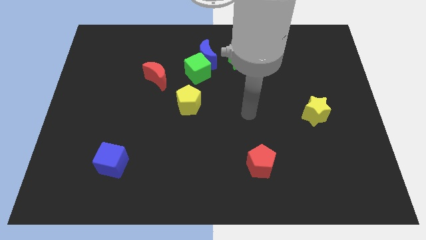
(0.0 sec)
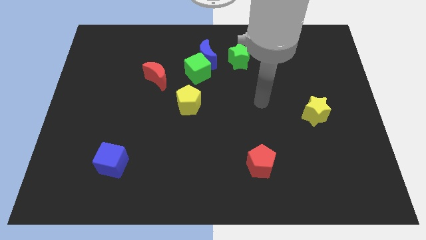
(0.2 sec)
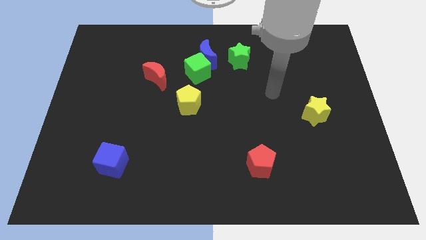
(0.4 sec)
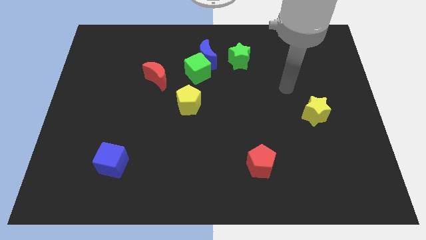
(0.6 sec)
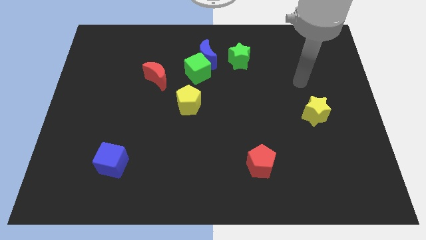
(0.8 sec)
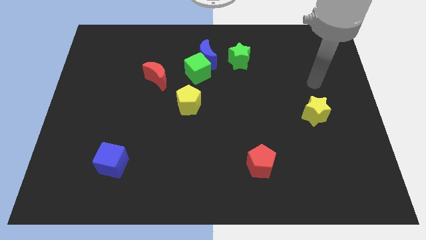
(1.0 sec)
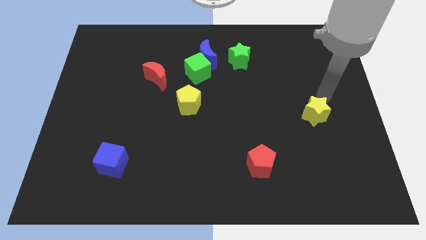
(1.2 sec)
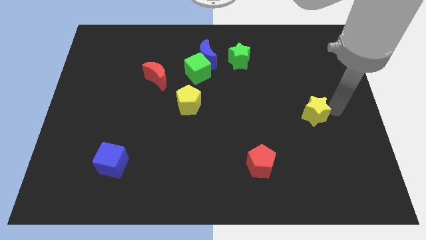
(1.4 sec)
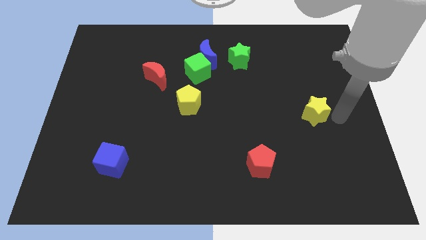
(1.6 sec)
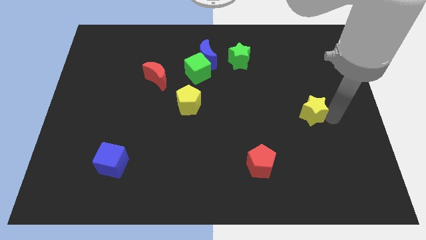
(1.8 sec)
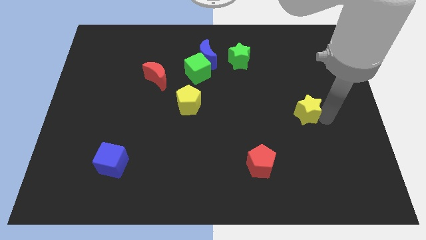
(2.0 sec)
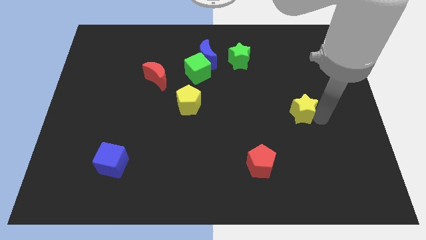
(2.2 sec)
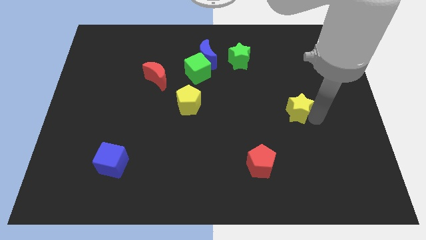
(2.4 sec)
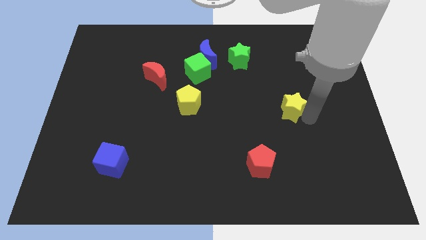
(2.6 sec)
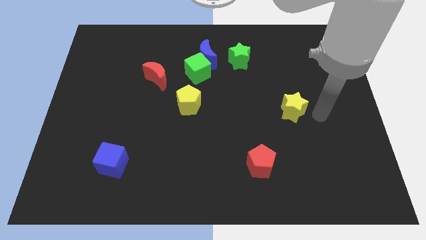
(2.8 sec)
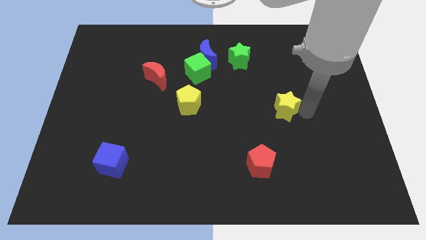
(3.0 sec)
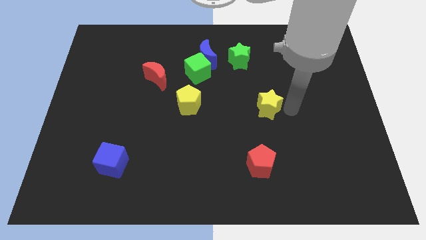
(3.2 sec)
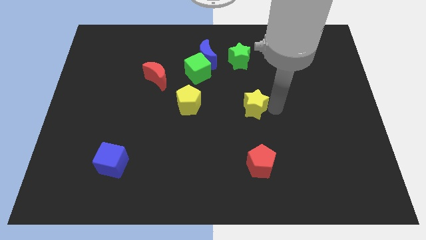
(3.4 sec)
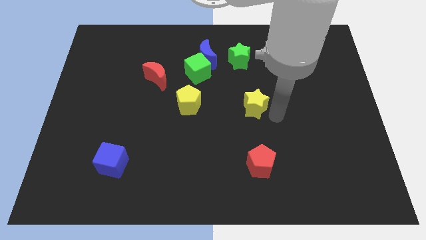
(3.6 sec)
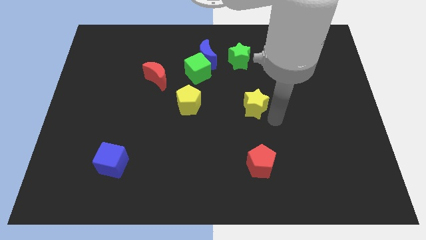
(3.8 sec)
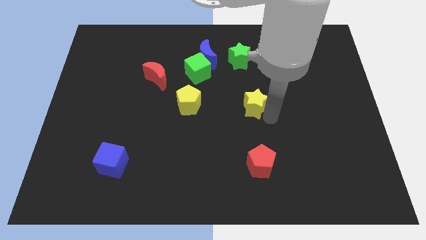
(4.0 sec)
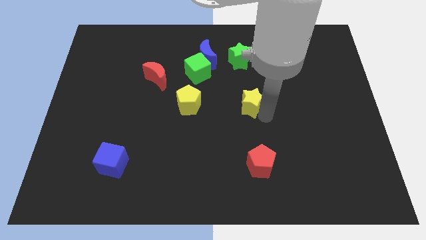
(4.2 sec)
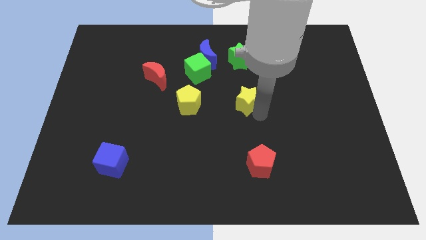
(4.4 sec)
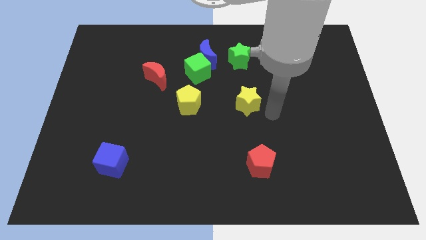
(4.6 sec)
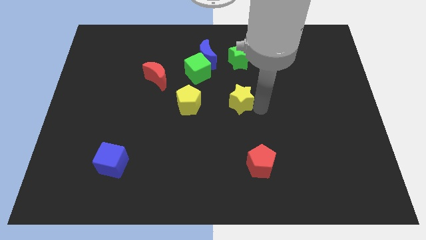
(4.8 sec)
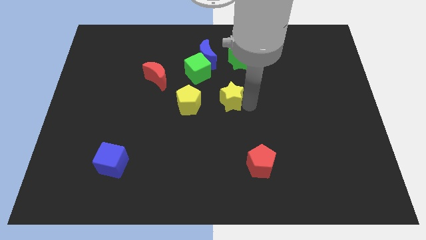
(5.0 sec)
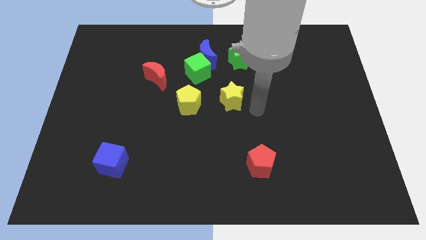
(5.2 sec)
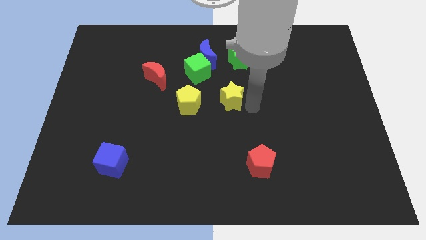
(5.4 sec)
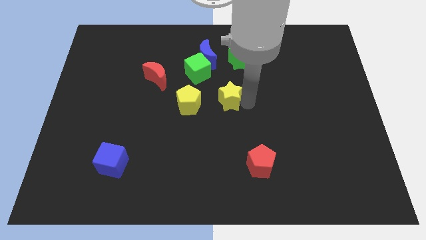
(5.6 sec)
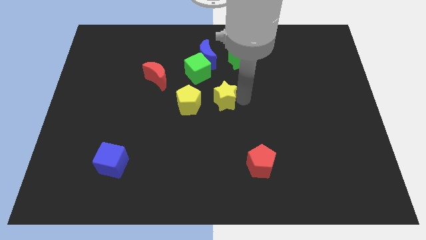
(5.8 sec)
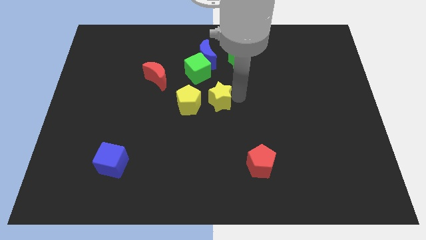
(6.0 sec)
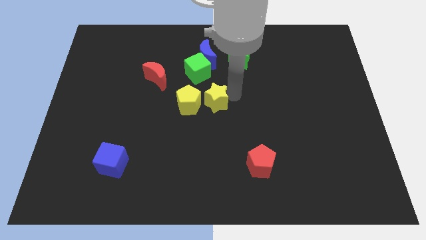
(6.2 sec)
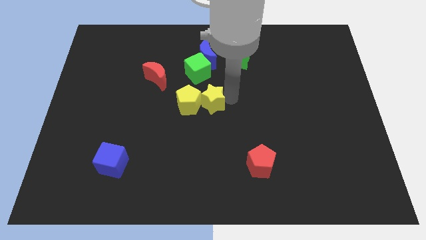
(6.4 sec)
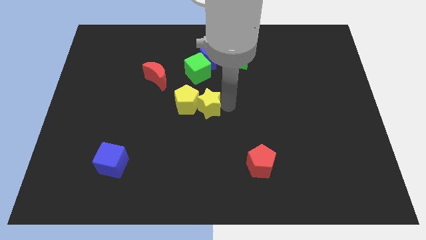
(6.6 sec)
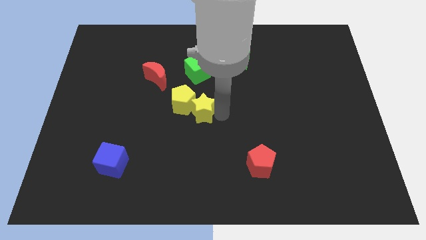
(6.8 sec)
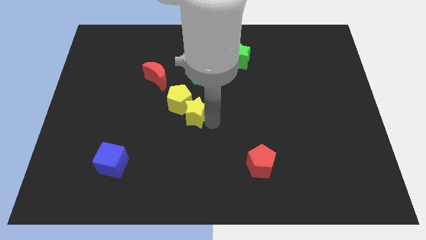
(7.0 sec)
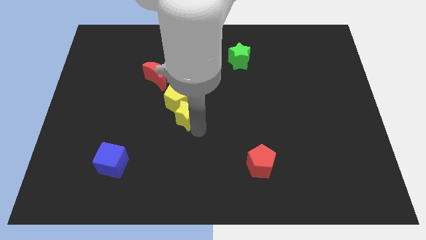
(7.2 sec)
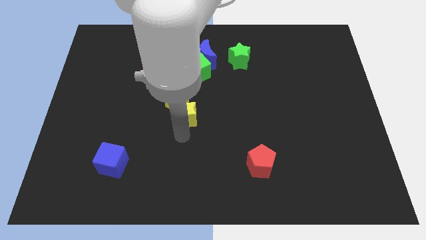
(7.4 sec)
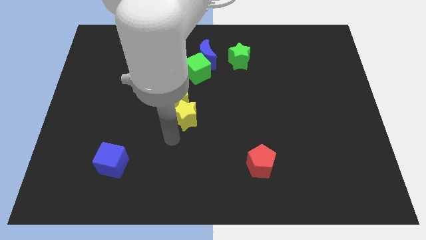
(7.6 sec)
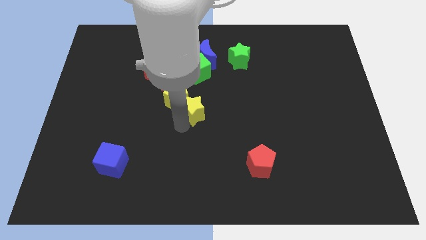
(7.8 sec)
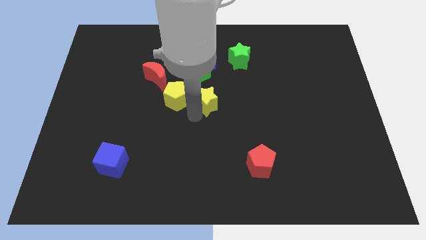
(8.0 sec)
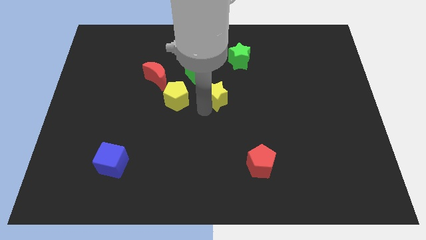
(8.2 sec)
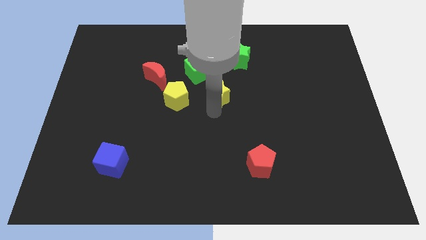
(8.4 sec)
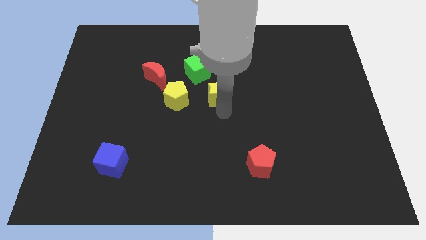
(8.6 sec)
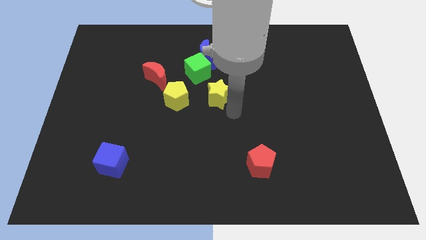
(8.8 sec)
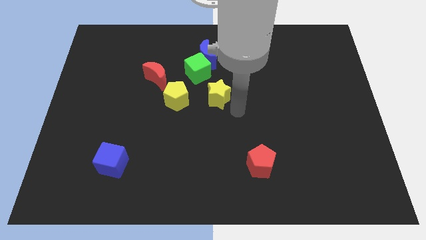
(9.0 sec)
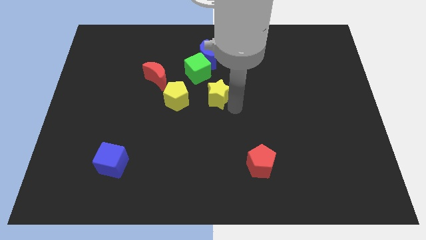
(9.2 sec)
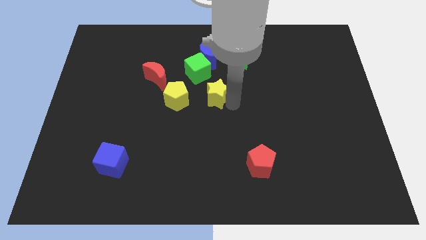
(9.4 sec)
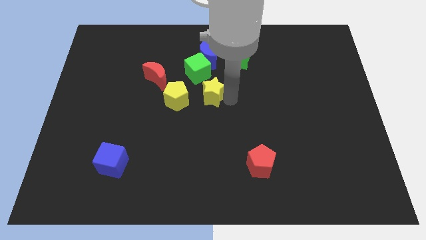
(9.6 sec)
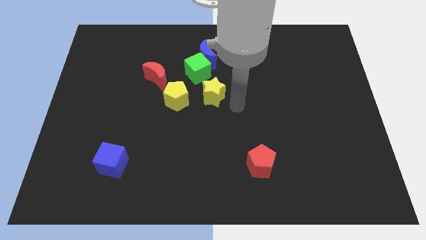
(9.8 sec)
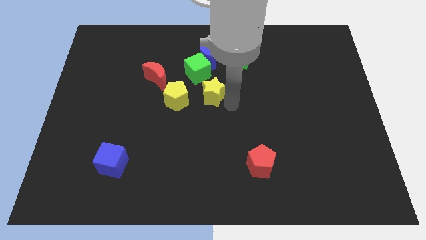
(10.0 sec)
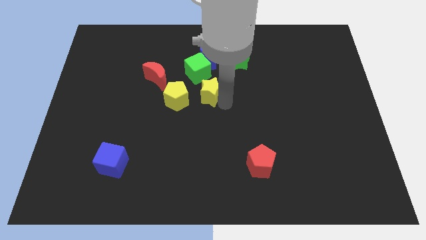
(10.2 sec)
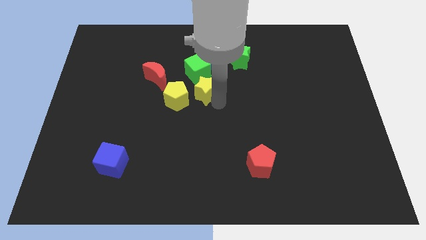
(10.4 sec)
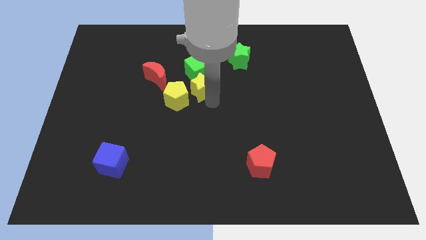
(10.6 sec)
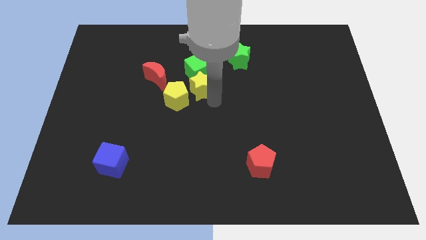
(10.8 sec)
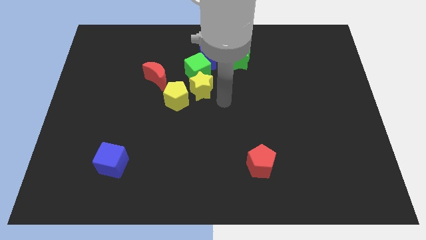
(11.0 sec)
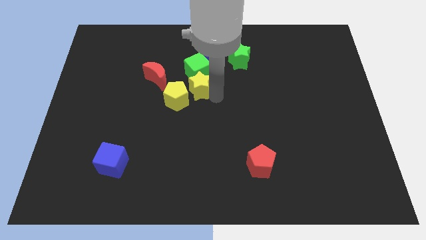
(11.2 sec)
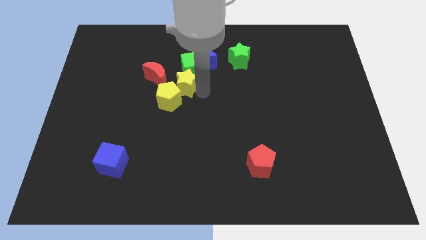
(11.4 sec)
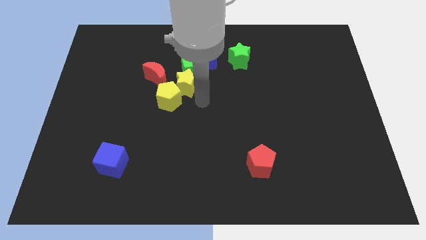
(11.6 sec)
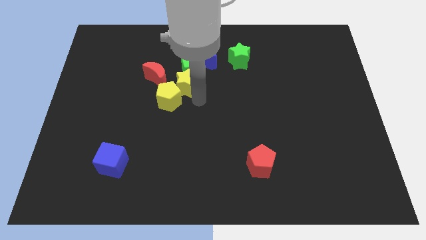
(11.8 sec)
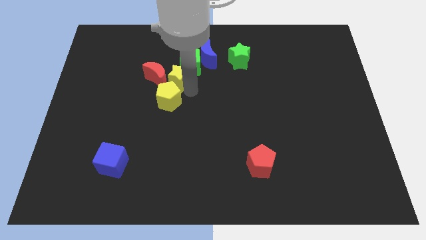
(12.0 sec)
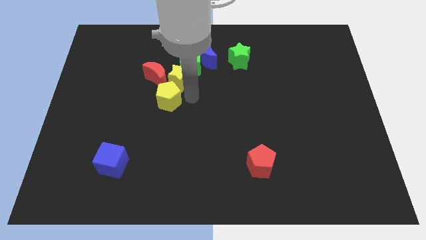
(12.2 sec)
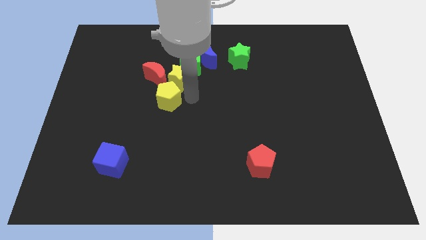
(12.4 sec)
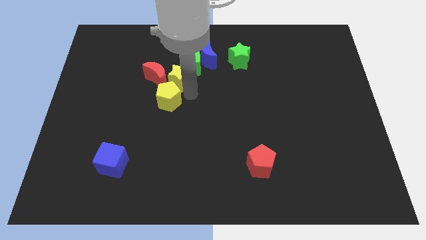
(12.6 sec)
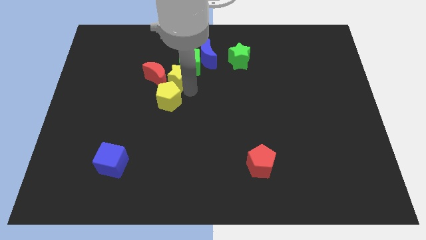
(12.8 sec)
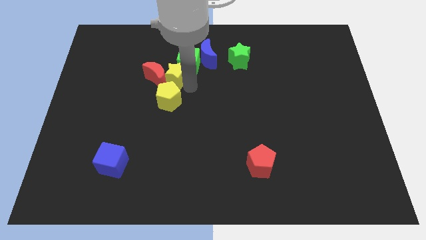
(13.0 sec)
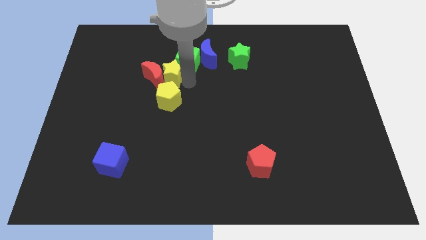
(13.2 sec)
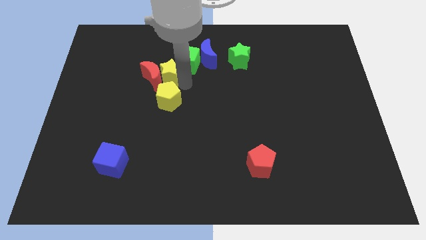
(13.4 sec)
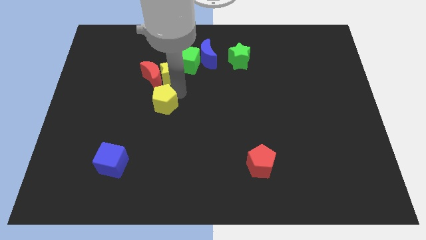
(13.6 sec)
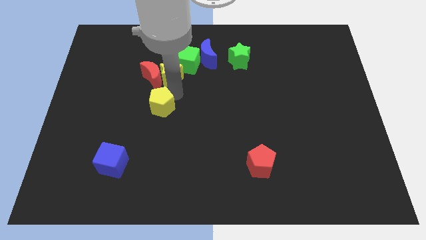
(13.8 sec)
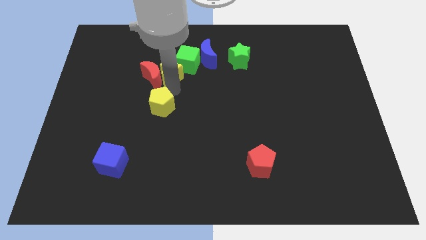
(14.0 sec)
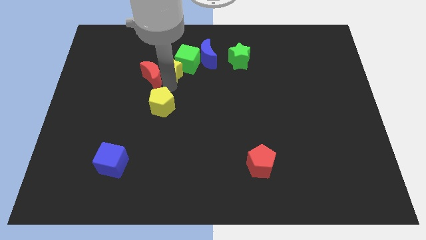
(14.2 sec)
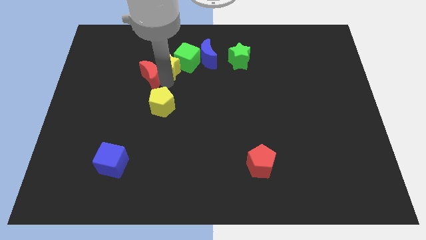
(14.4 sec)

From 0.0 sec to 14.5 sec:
push the yellow star to the left of the blue moon

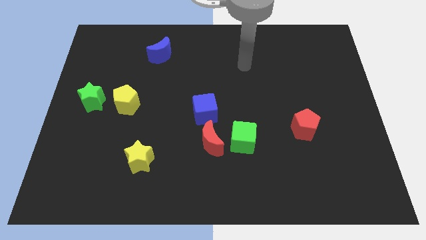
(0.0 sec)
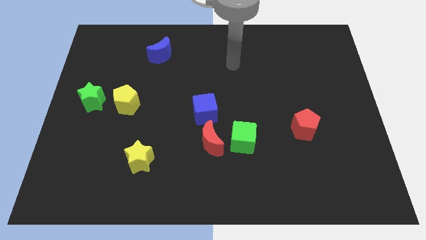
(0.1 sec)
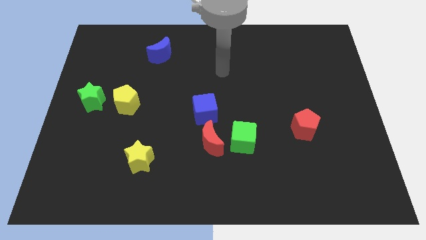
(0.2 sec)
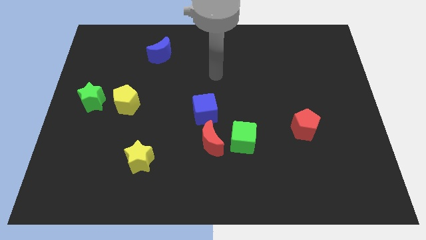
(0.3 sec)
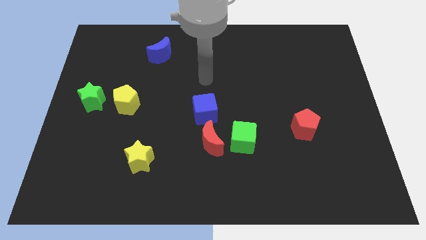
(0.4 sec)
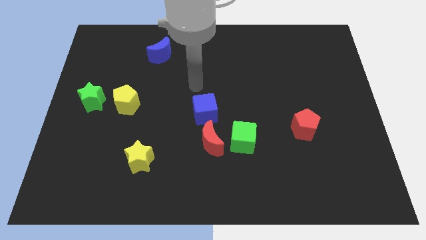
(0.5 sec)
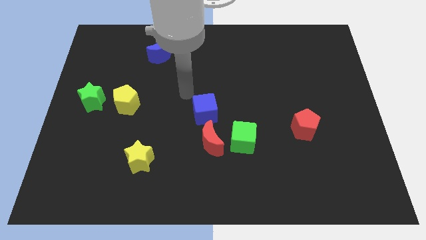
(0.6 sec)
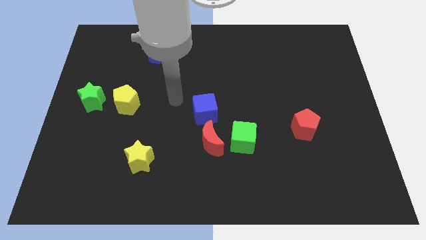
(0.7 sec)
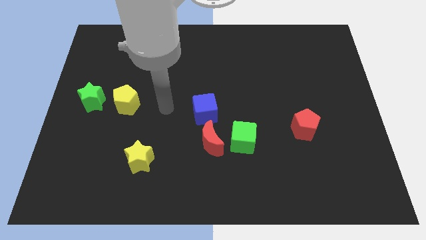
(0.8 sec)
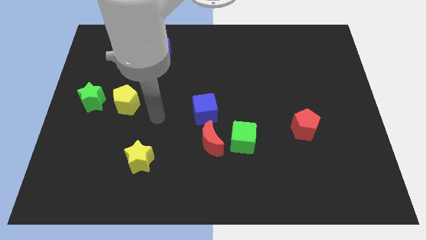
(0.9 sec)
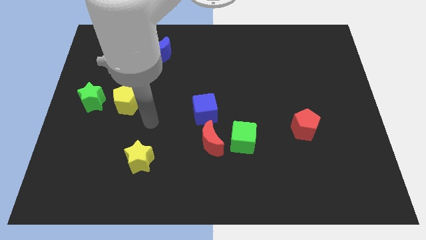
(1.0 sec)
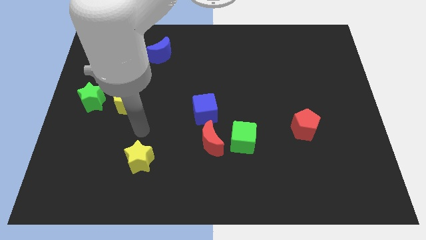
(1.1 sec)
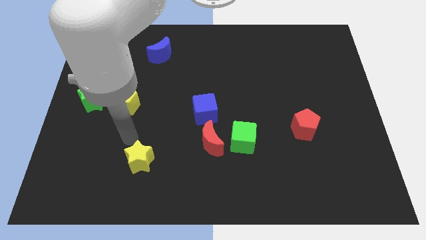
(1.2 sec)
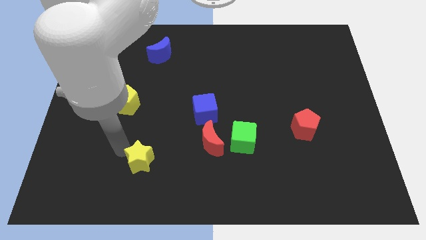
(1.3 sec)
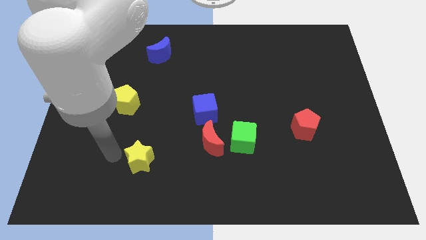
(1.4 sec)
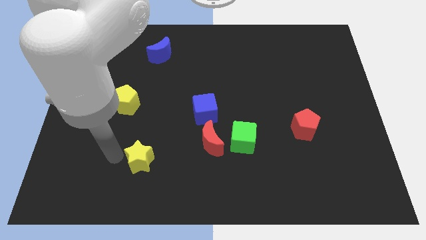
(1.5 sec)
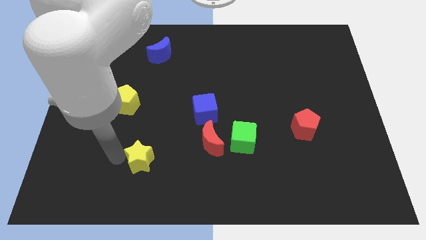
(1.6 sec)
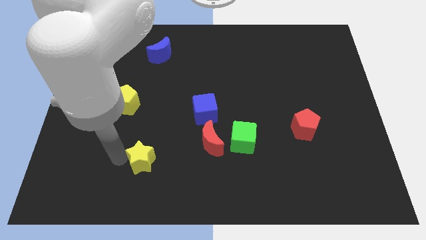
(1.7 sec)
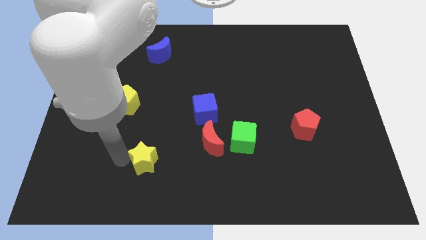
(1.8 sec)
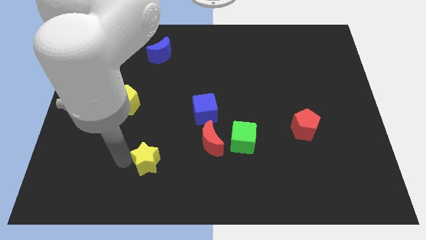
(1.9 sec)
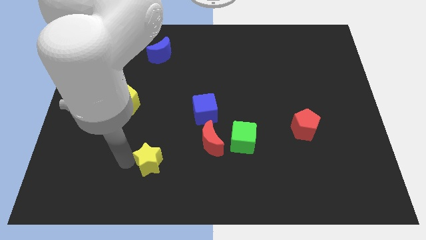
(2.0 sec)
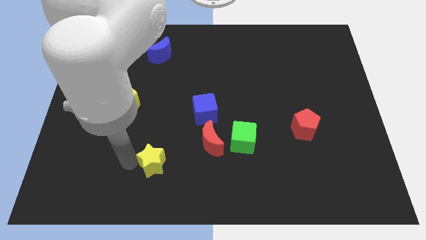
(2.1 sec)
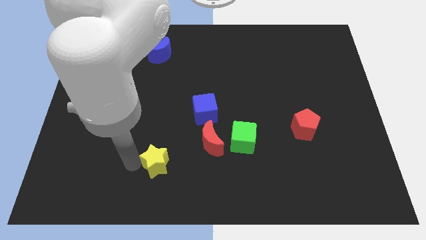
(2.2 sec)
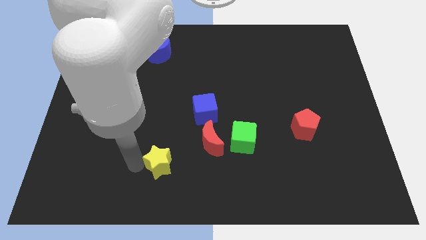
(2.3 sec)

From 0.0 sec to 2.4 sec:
put the yellow star to the bottom left side of the red moon
